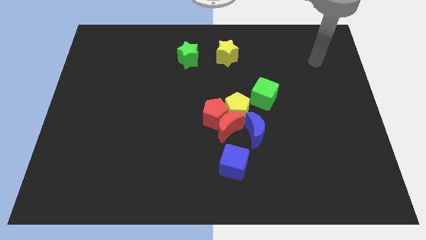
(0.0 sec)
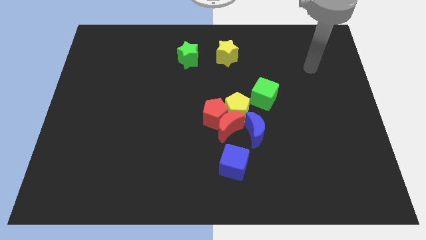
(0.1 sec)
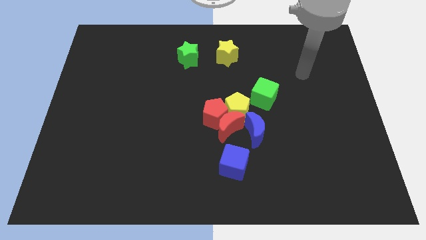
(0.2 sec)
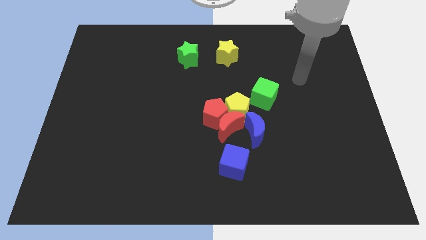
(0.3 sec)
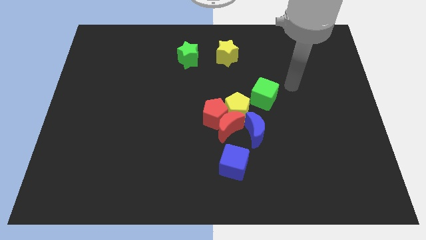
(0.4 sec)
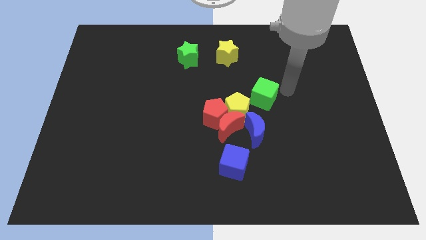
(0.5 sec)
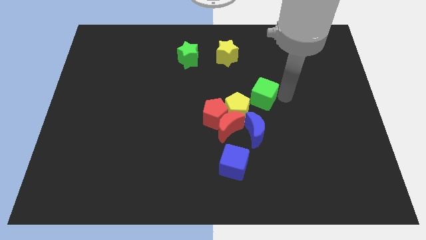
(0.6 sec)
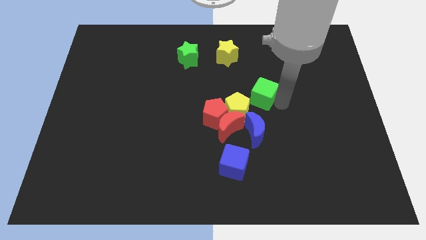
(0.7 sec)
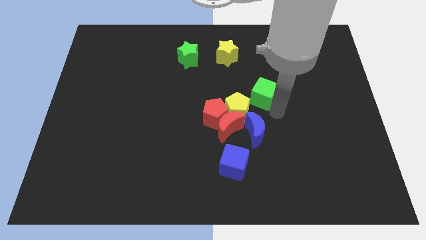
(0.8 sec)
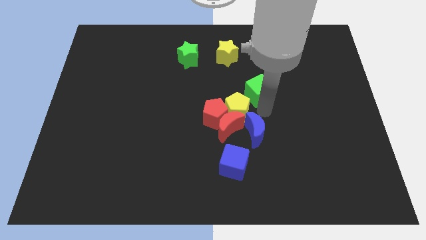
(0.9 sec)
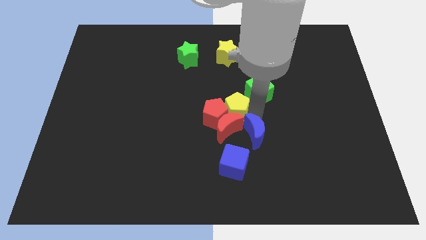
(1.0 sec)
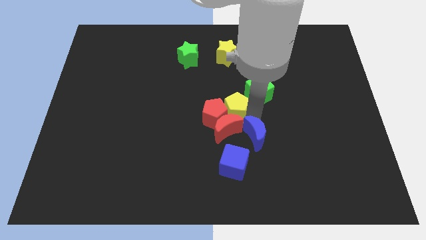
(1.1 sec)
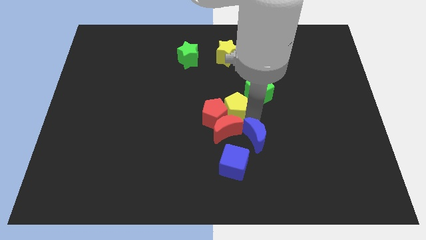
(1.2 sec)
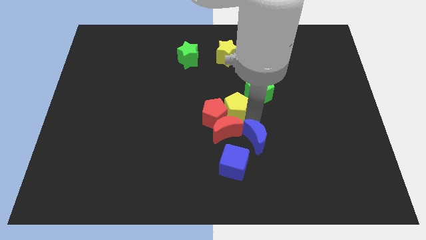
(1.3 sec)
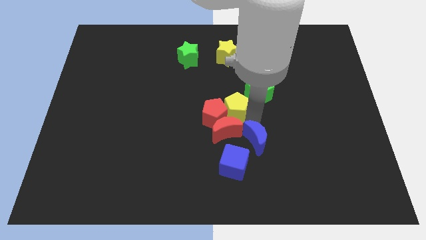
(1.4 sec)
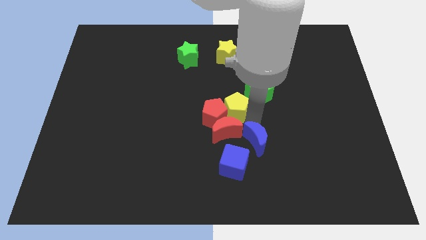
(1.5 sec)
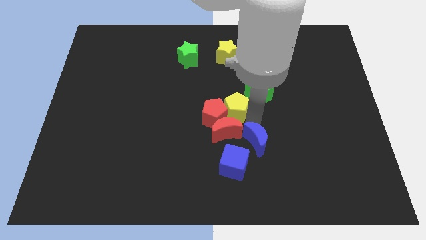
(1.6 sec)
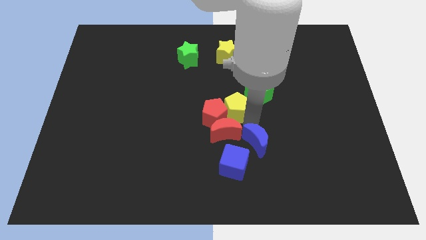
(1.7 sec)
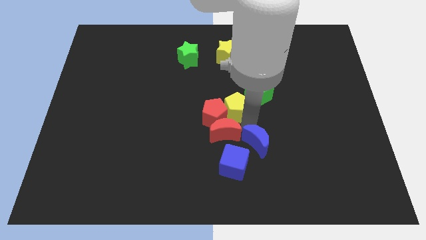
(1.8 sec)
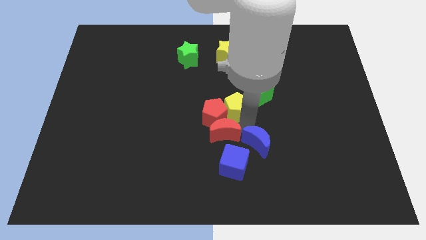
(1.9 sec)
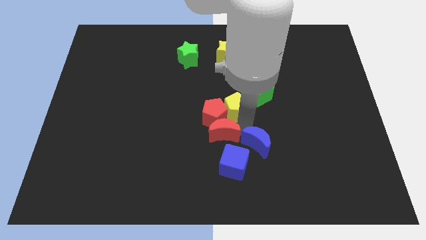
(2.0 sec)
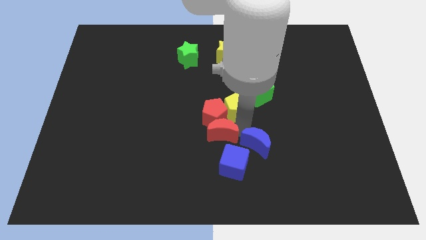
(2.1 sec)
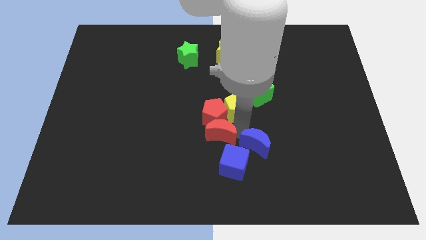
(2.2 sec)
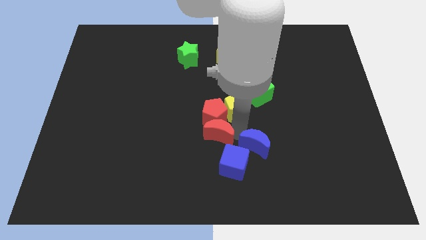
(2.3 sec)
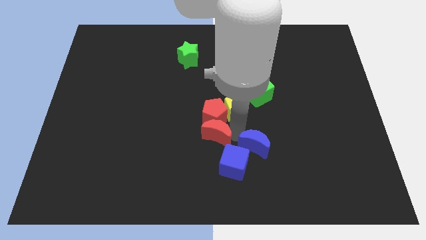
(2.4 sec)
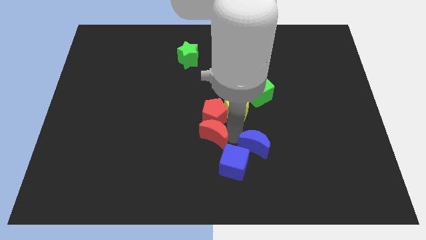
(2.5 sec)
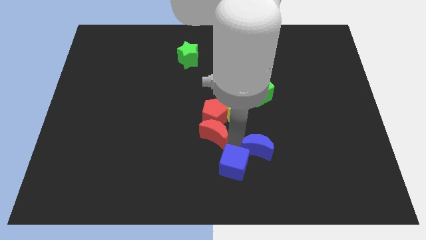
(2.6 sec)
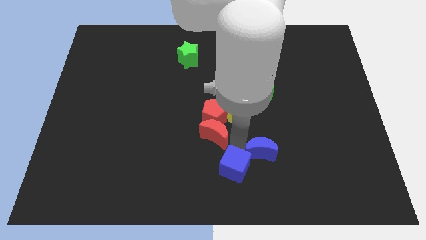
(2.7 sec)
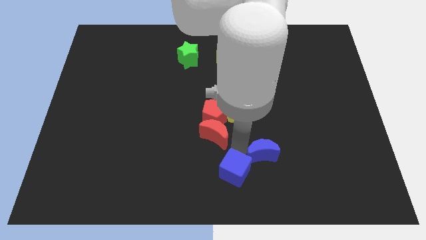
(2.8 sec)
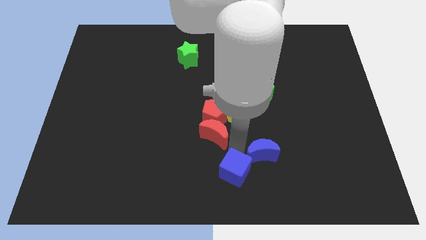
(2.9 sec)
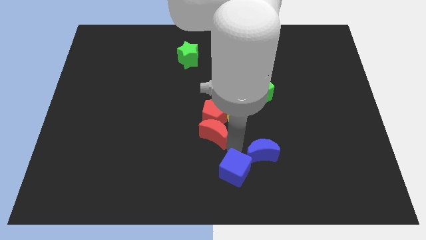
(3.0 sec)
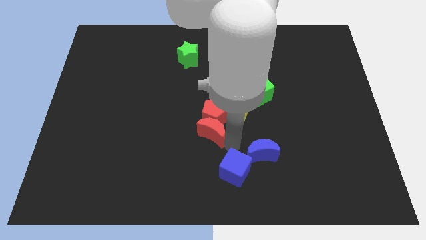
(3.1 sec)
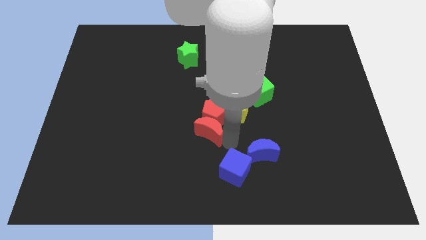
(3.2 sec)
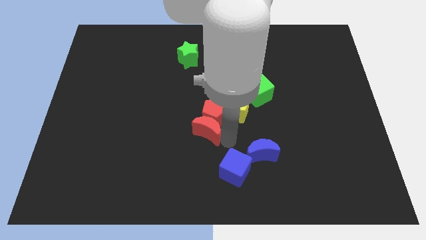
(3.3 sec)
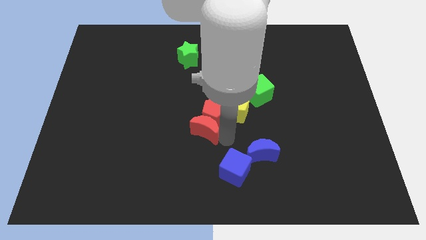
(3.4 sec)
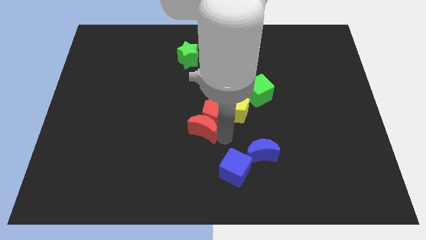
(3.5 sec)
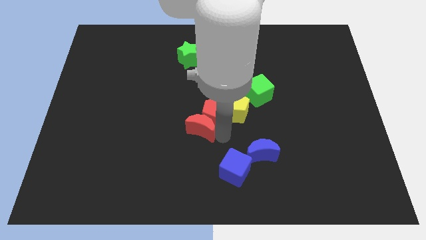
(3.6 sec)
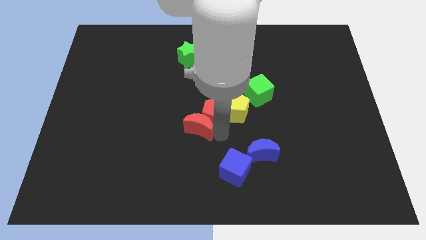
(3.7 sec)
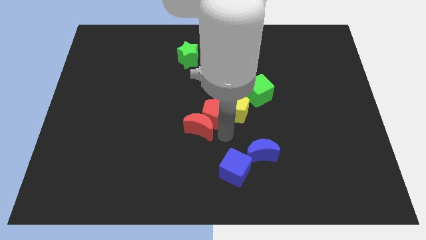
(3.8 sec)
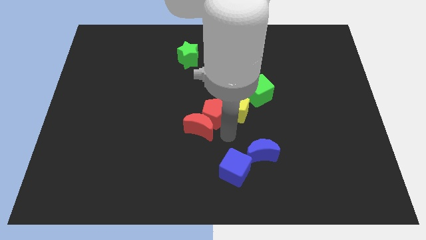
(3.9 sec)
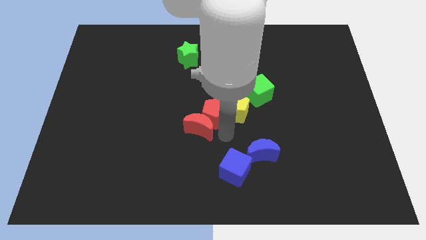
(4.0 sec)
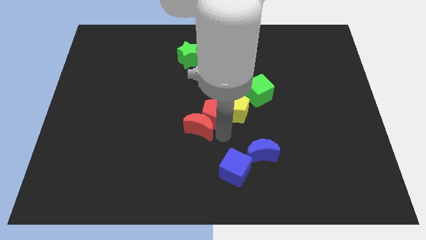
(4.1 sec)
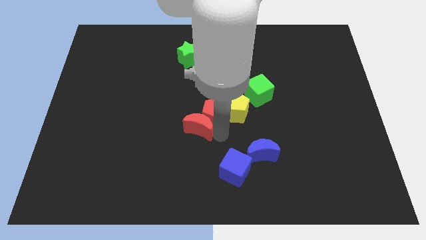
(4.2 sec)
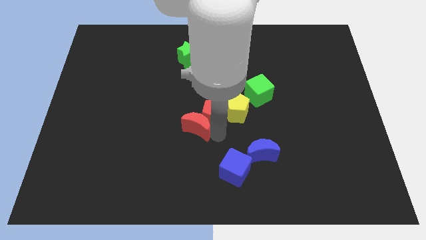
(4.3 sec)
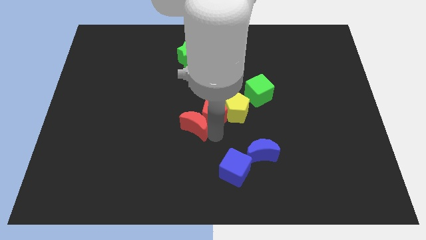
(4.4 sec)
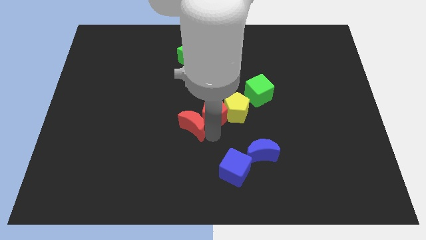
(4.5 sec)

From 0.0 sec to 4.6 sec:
separate the red moon from the group of blocks

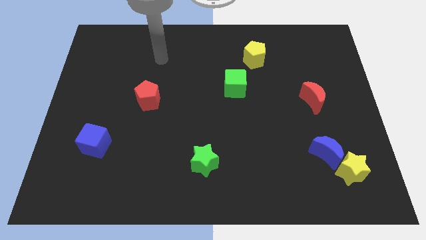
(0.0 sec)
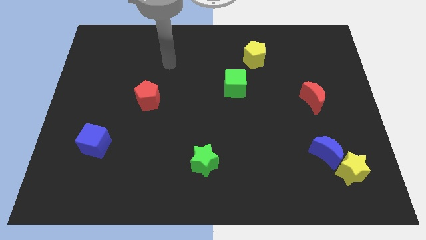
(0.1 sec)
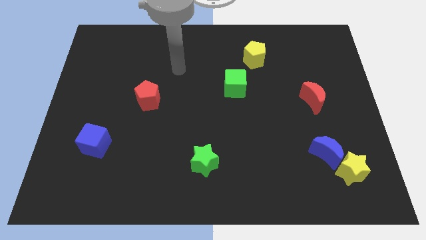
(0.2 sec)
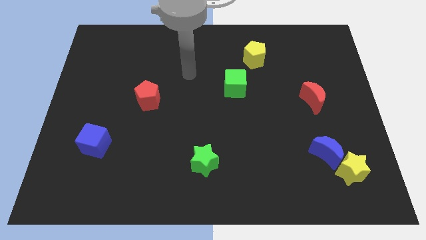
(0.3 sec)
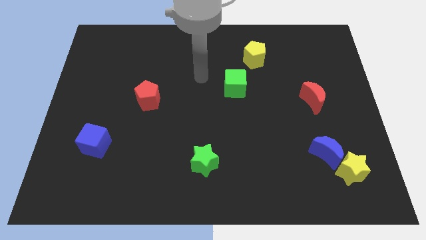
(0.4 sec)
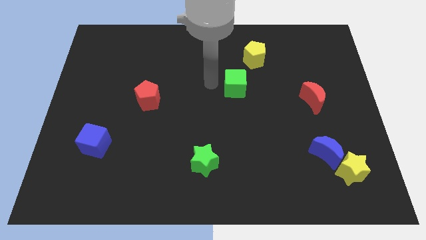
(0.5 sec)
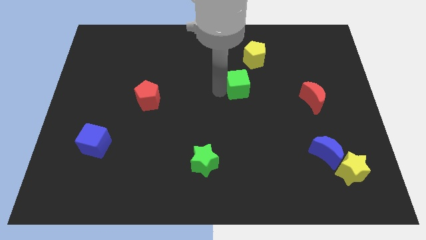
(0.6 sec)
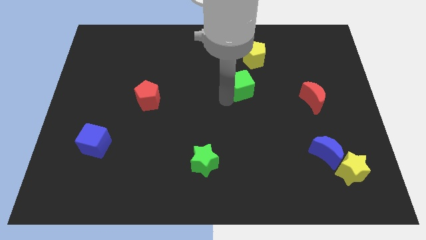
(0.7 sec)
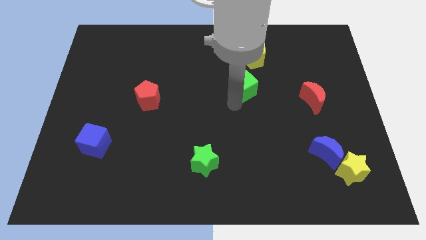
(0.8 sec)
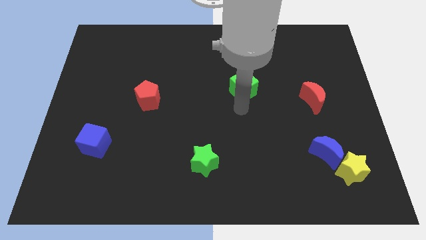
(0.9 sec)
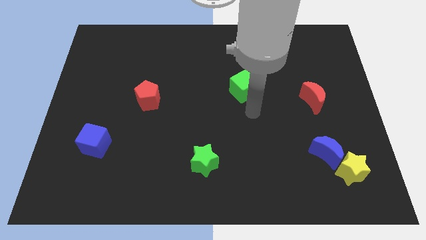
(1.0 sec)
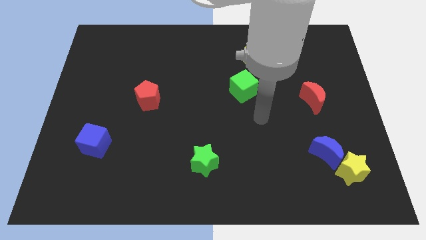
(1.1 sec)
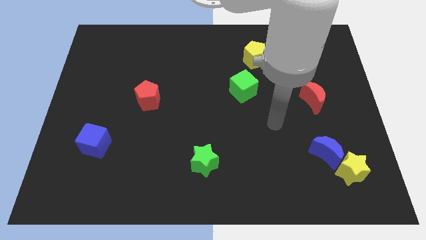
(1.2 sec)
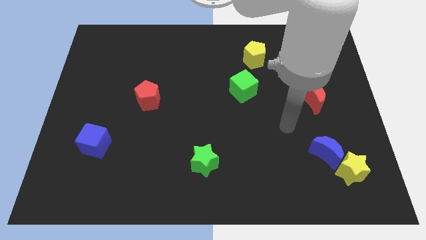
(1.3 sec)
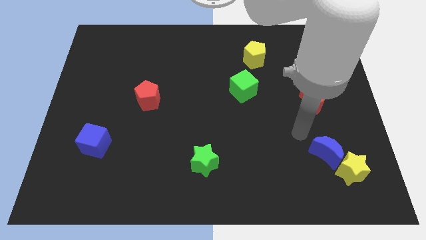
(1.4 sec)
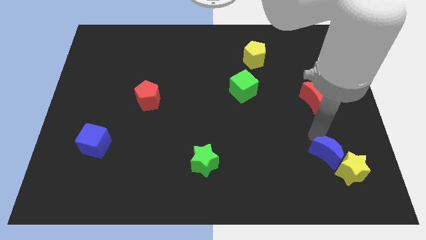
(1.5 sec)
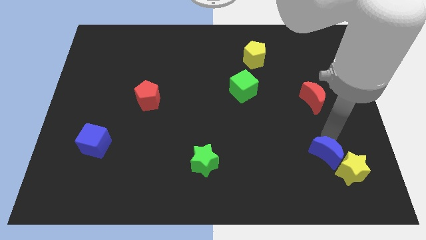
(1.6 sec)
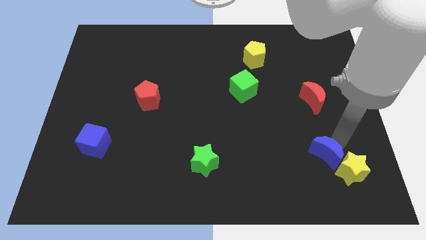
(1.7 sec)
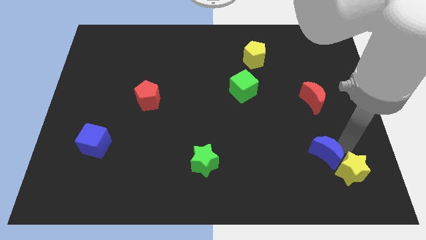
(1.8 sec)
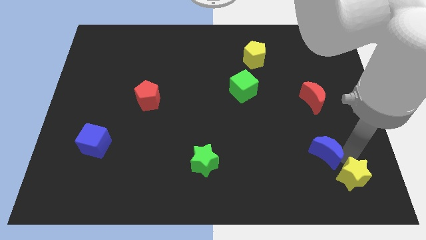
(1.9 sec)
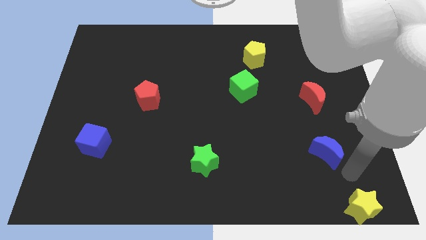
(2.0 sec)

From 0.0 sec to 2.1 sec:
pull the blue moon apart from the yellow star

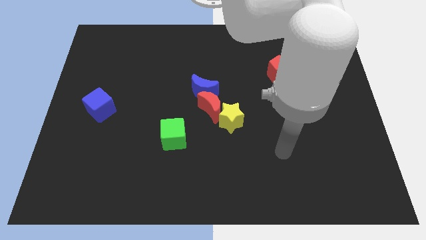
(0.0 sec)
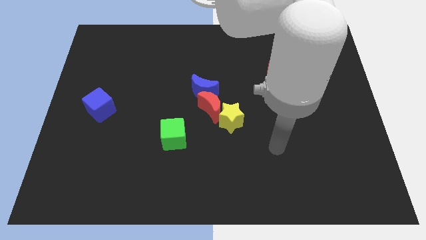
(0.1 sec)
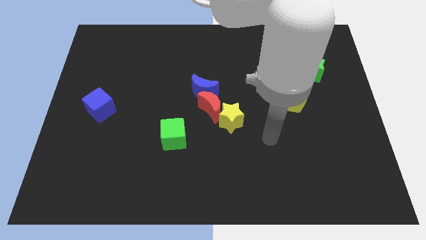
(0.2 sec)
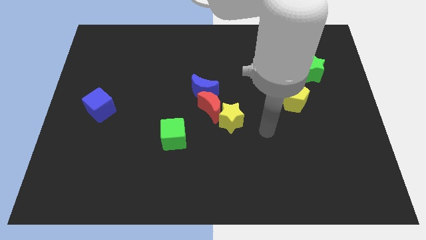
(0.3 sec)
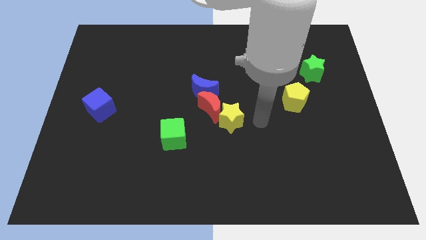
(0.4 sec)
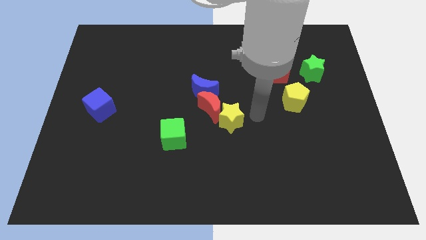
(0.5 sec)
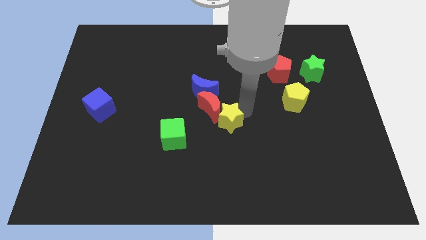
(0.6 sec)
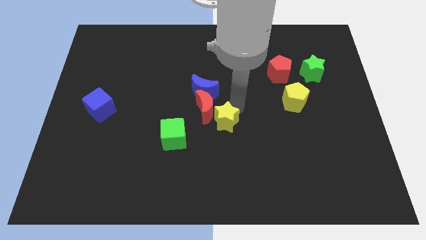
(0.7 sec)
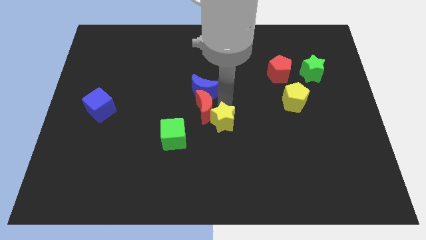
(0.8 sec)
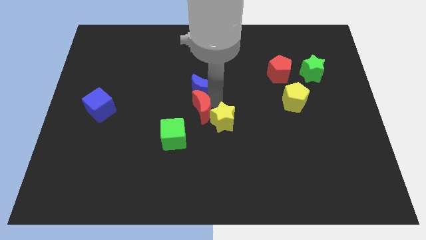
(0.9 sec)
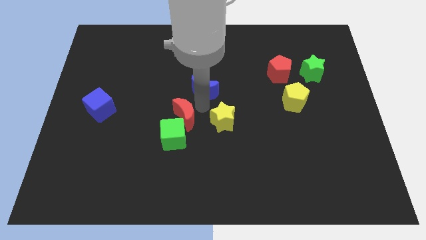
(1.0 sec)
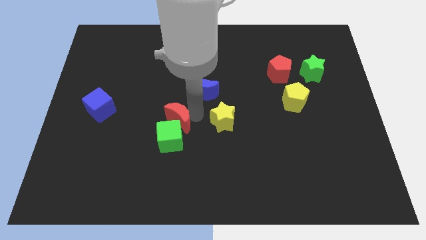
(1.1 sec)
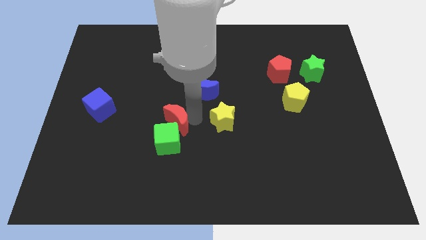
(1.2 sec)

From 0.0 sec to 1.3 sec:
move the yellow star away from the red moon

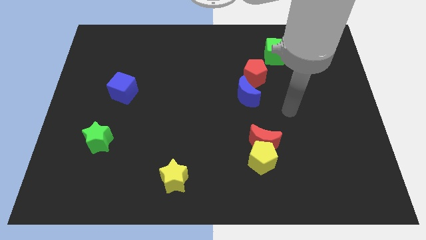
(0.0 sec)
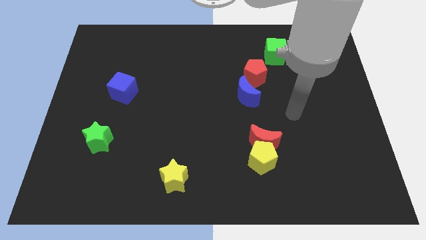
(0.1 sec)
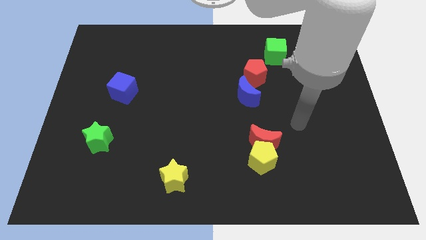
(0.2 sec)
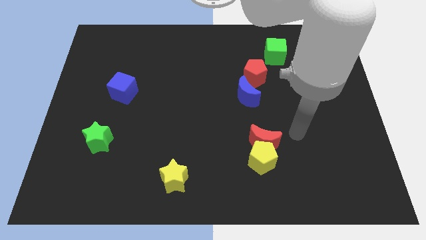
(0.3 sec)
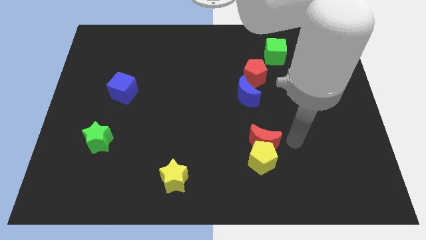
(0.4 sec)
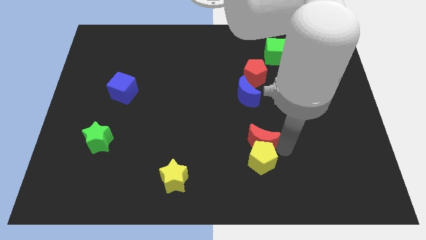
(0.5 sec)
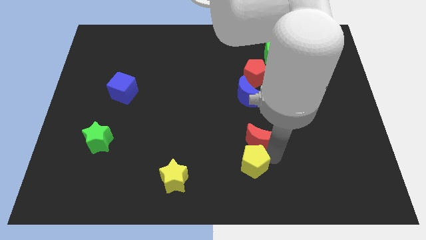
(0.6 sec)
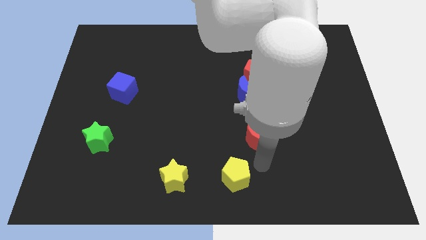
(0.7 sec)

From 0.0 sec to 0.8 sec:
separate the red moon from the yellow pentagon

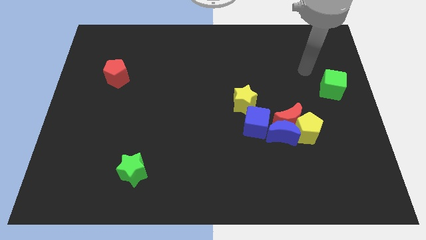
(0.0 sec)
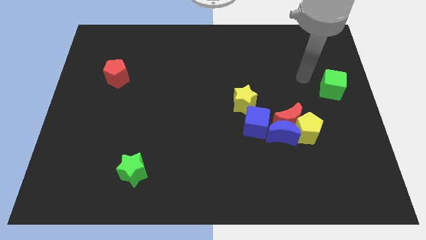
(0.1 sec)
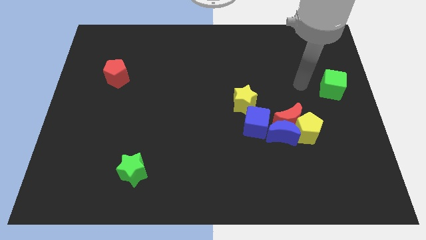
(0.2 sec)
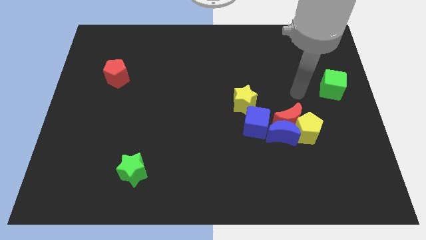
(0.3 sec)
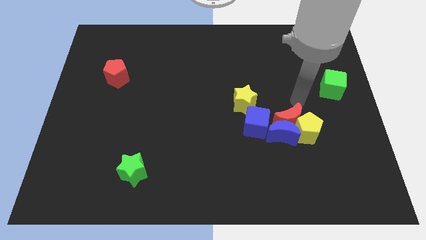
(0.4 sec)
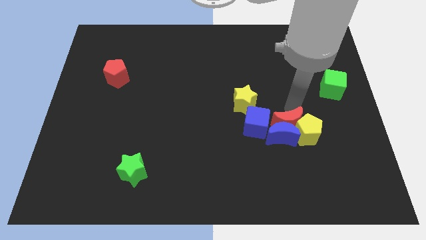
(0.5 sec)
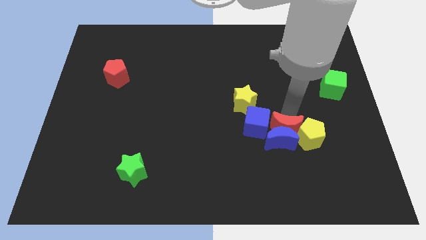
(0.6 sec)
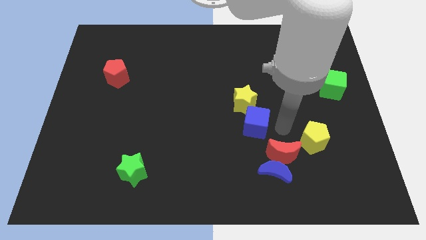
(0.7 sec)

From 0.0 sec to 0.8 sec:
move the yellow pentagon away from the red moon and blue moon
